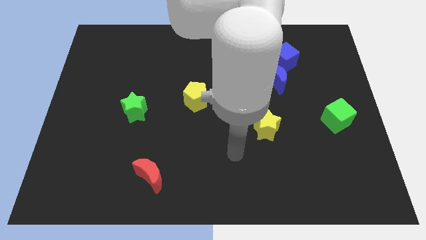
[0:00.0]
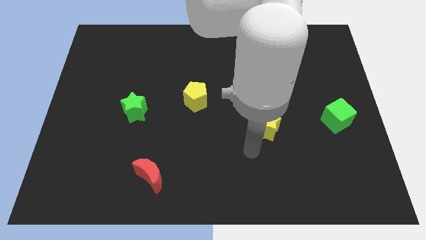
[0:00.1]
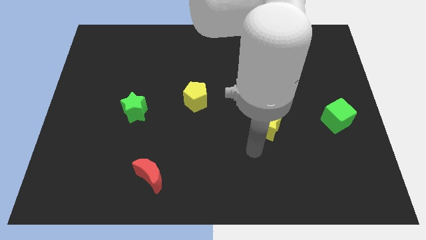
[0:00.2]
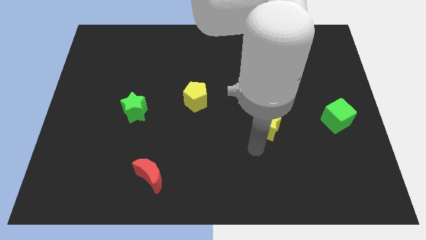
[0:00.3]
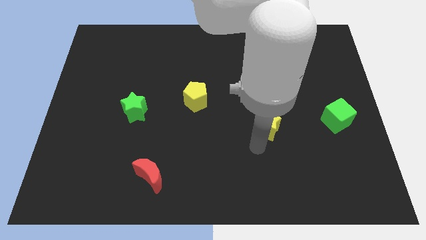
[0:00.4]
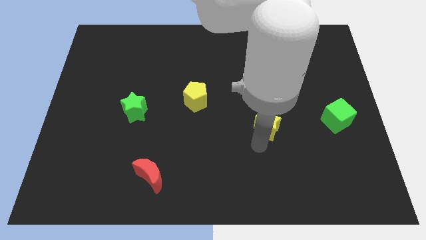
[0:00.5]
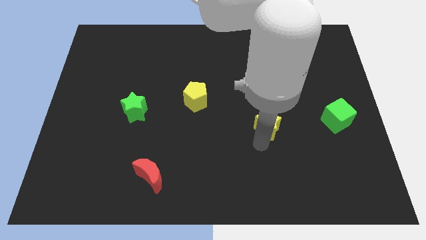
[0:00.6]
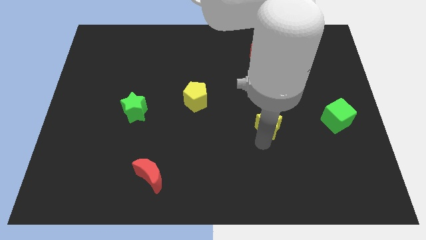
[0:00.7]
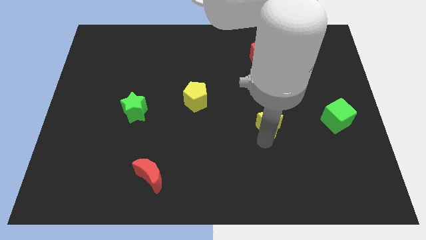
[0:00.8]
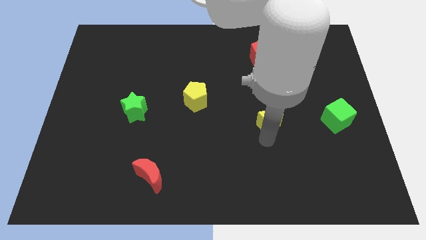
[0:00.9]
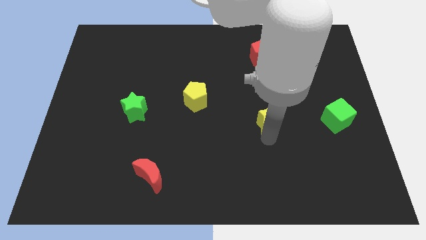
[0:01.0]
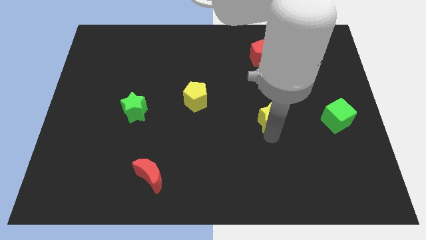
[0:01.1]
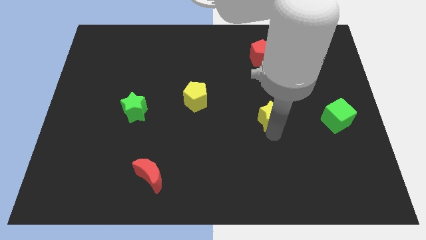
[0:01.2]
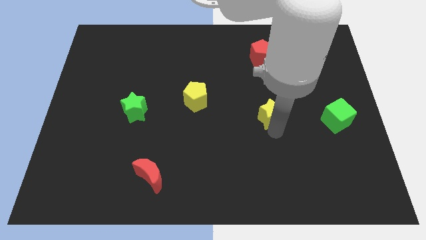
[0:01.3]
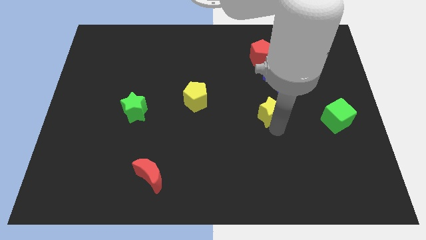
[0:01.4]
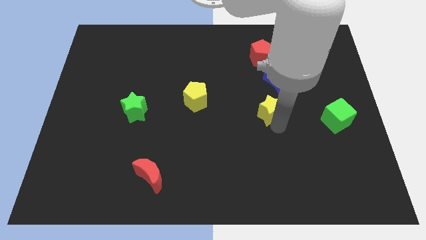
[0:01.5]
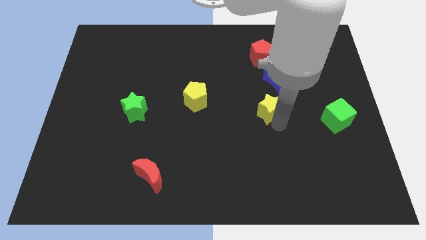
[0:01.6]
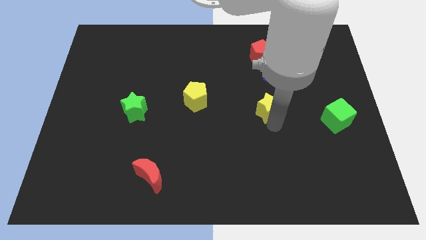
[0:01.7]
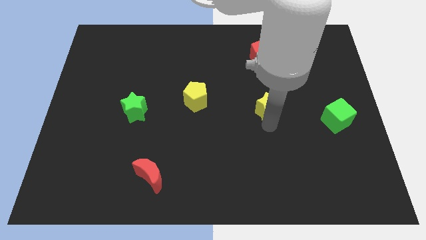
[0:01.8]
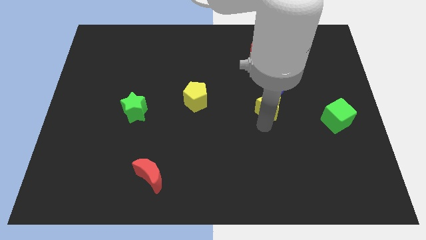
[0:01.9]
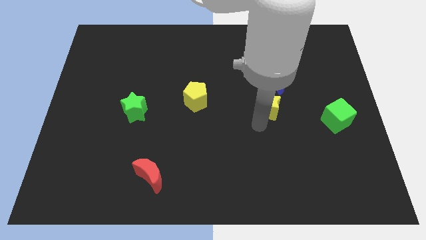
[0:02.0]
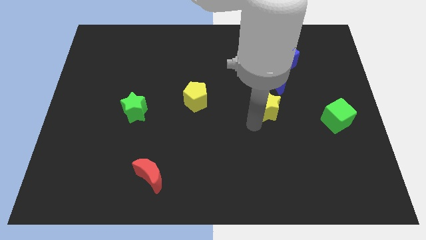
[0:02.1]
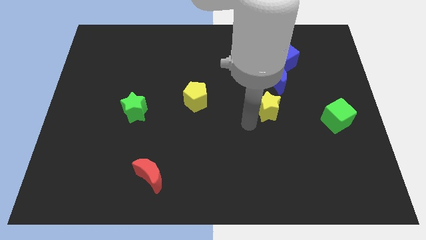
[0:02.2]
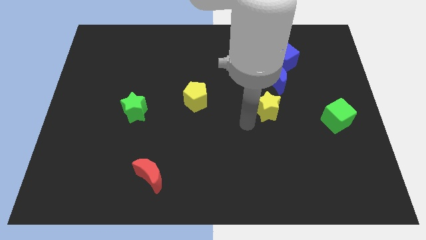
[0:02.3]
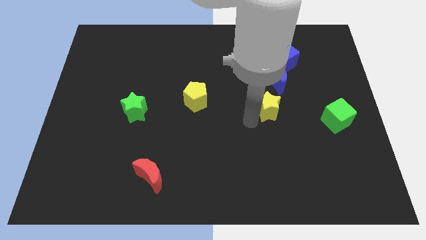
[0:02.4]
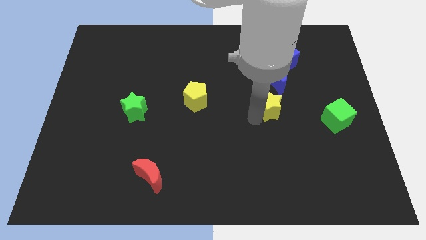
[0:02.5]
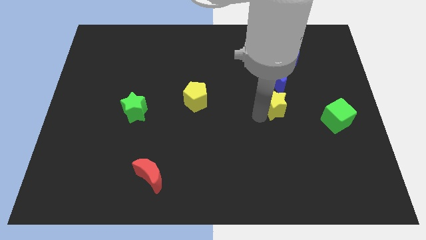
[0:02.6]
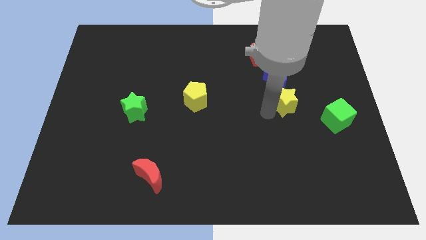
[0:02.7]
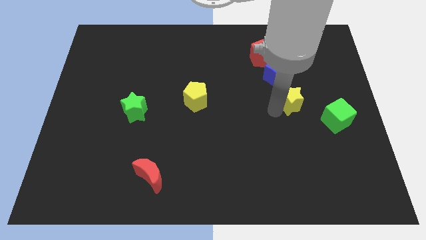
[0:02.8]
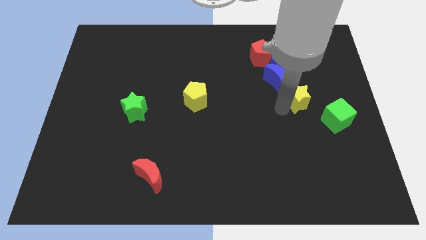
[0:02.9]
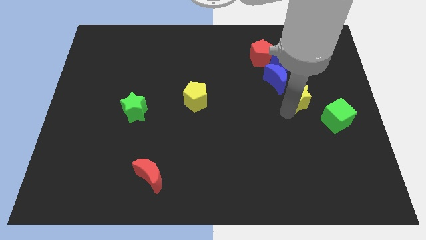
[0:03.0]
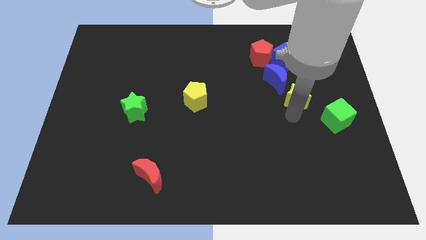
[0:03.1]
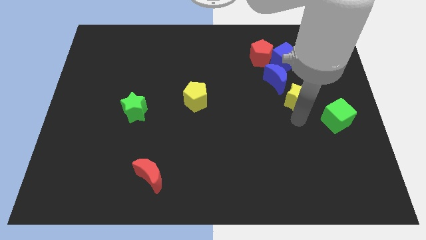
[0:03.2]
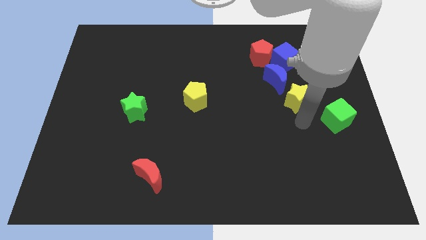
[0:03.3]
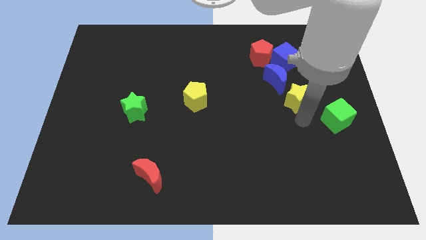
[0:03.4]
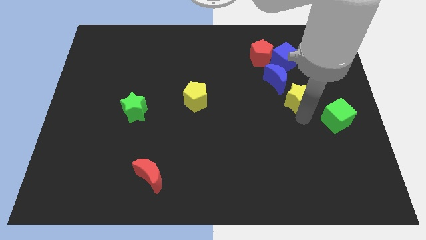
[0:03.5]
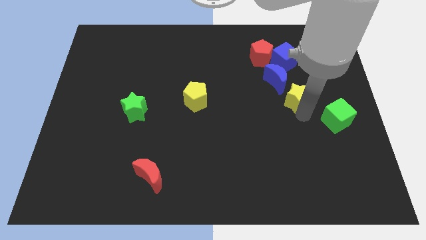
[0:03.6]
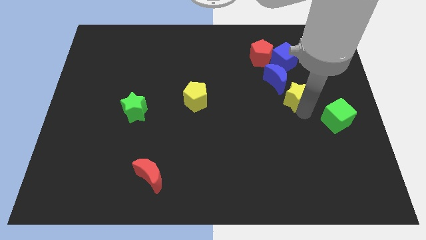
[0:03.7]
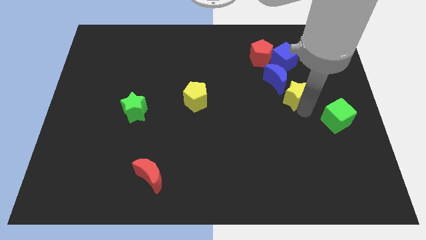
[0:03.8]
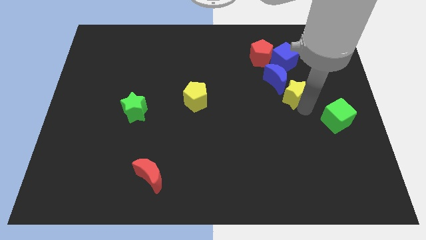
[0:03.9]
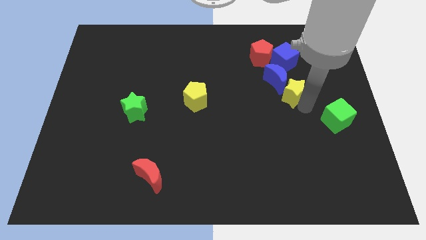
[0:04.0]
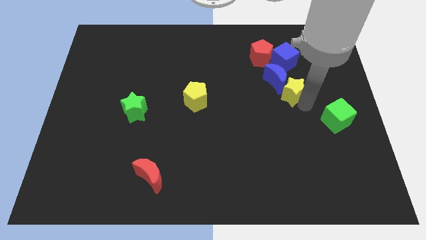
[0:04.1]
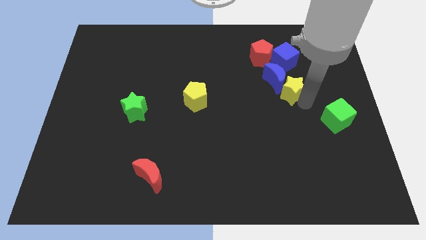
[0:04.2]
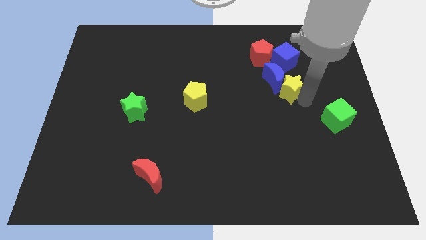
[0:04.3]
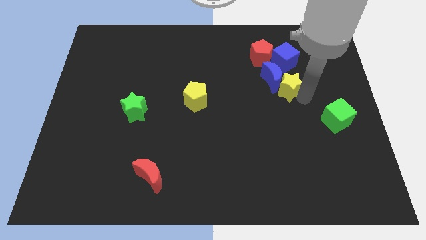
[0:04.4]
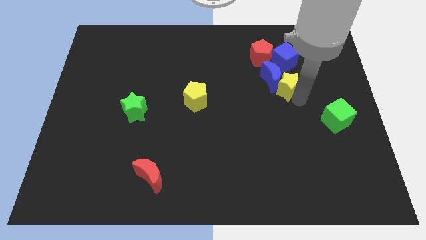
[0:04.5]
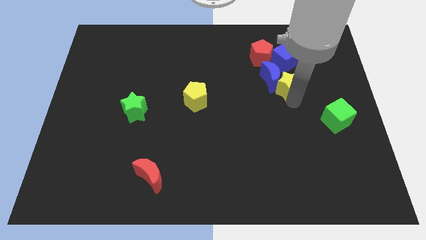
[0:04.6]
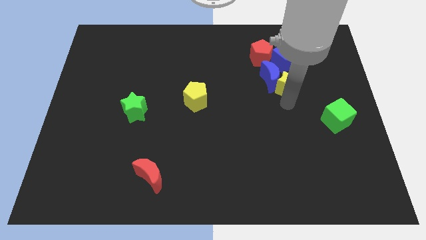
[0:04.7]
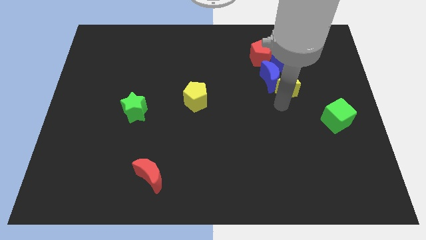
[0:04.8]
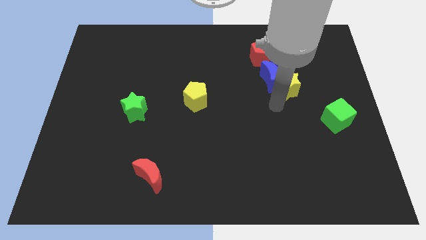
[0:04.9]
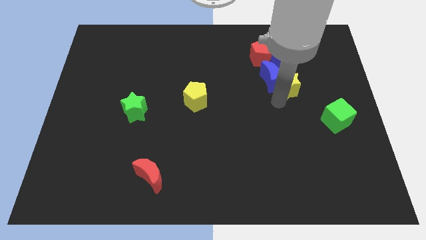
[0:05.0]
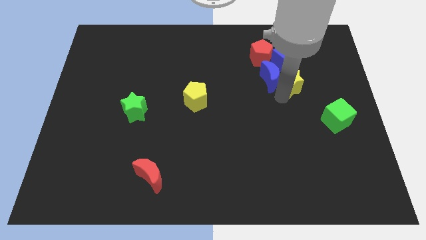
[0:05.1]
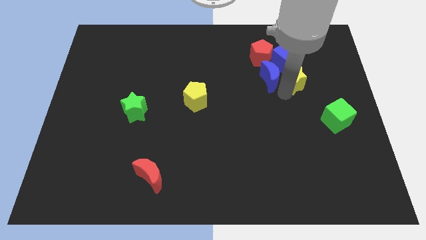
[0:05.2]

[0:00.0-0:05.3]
slide the yellow star to the top right side of the blue moon
